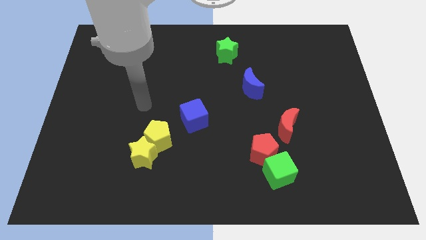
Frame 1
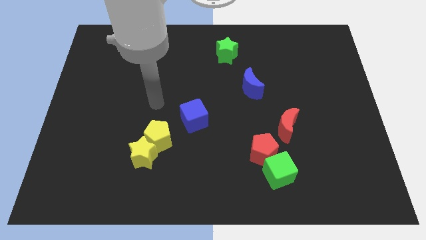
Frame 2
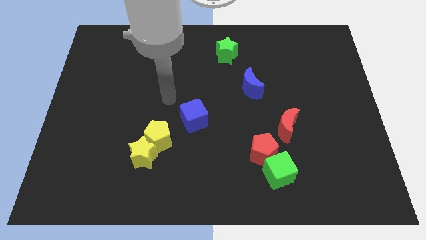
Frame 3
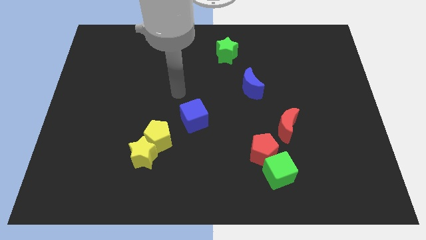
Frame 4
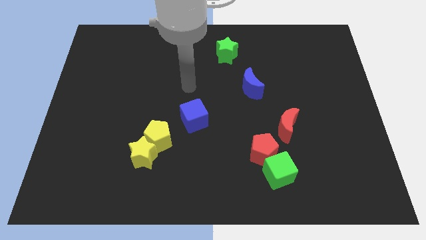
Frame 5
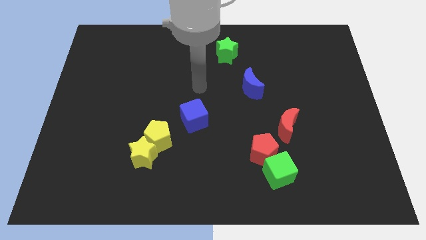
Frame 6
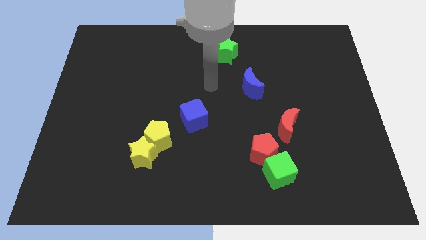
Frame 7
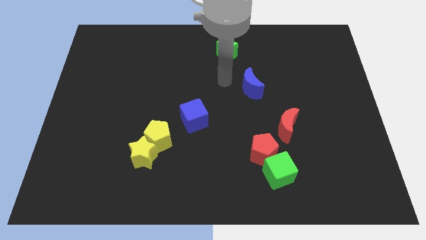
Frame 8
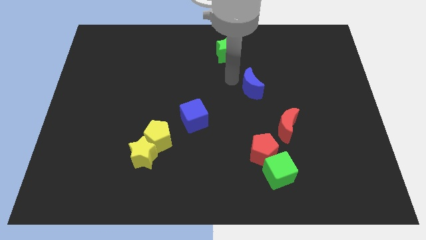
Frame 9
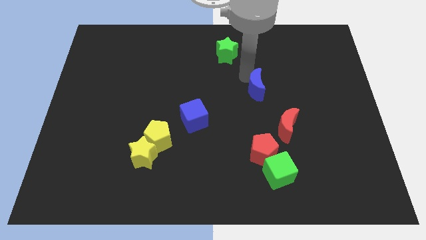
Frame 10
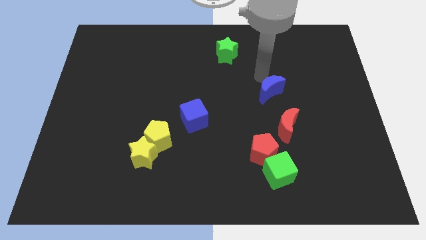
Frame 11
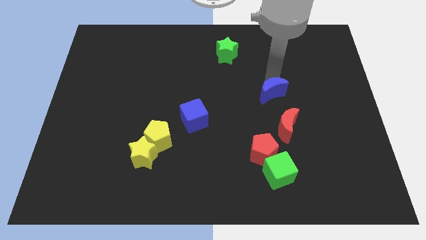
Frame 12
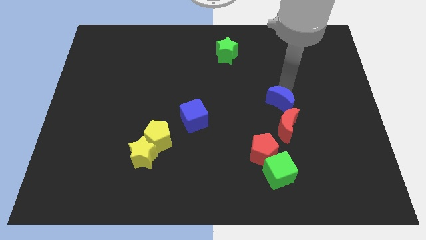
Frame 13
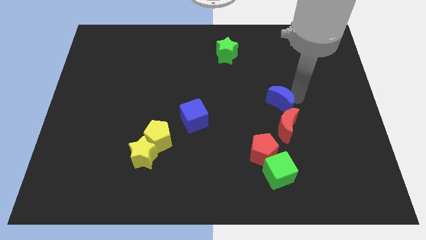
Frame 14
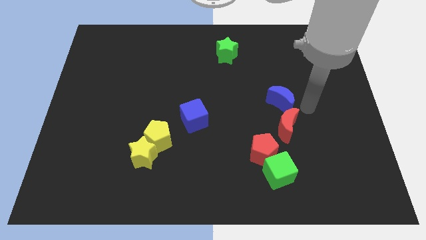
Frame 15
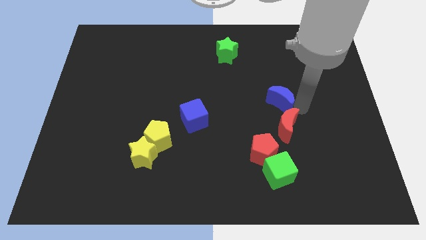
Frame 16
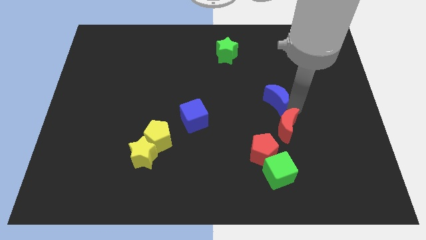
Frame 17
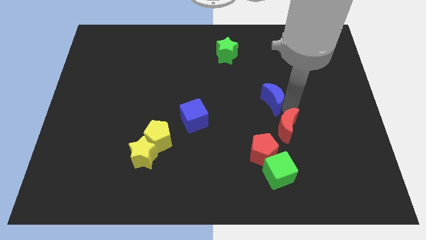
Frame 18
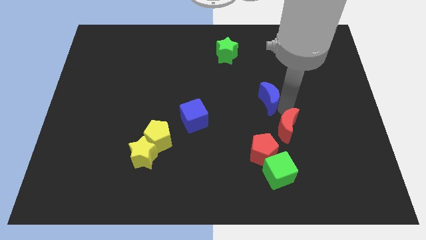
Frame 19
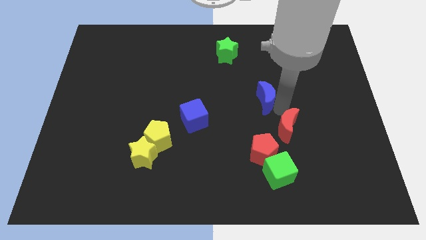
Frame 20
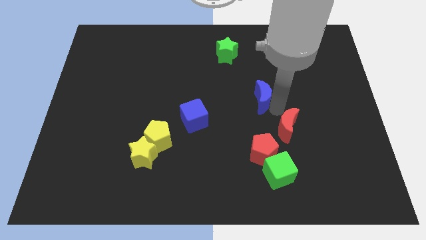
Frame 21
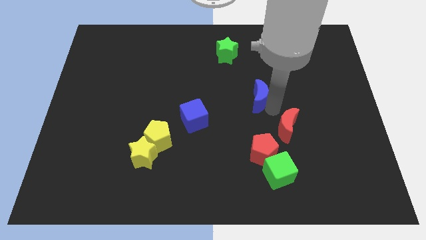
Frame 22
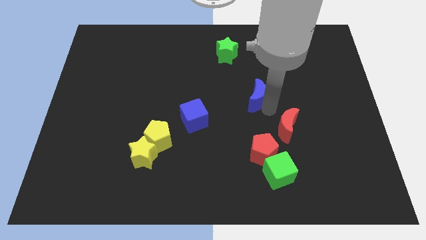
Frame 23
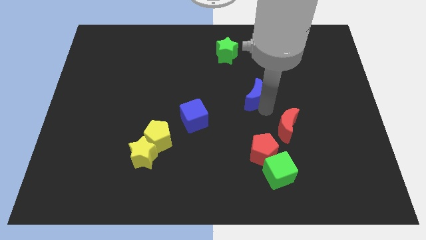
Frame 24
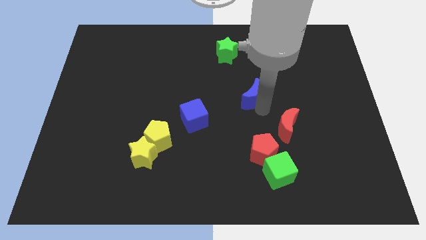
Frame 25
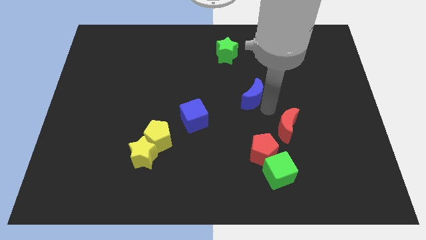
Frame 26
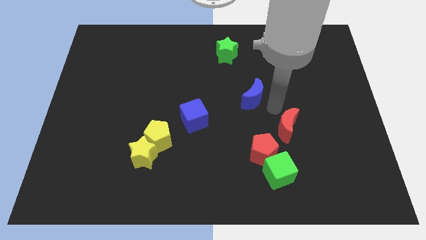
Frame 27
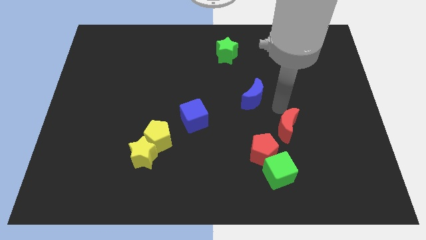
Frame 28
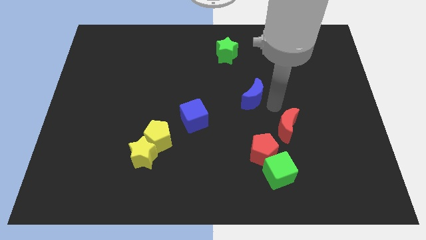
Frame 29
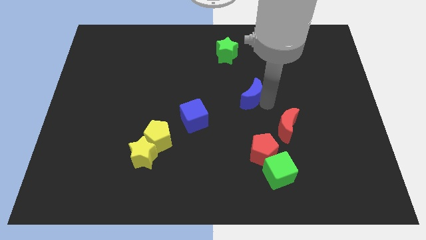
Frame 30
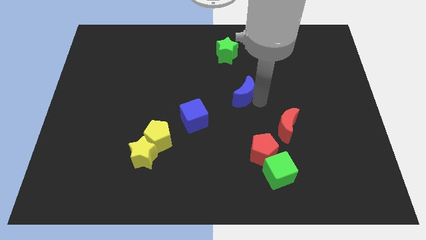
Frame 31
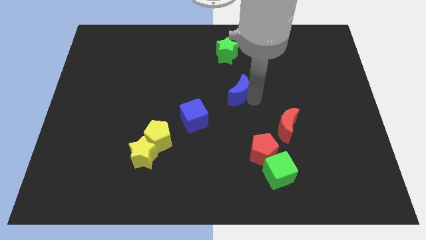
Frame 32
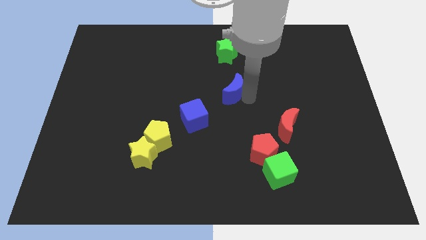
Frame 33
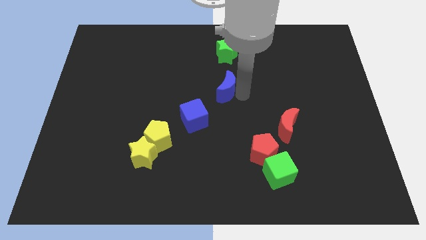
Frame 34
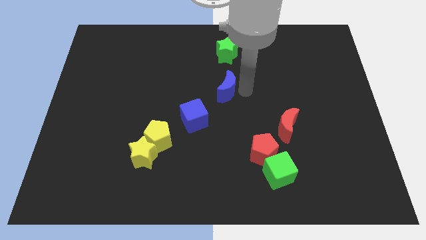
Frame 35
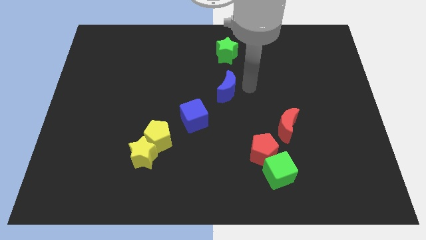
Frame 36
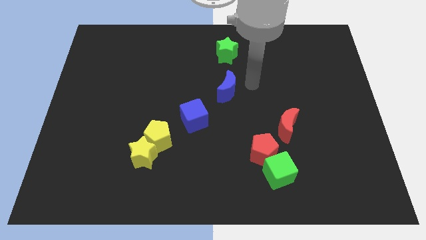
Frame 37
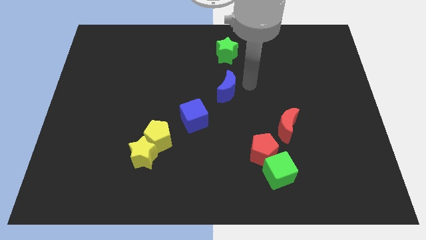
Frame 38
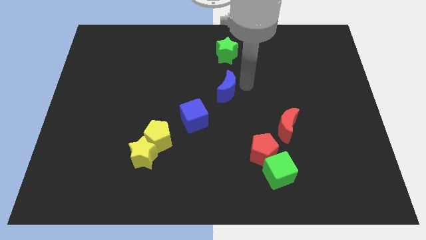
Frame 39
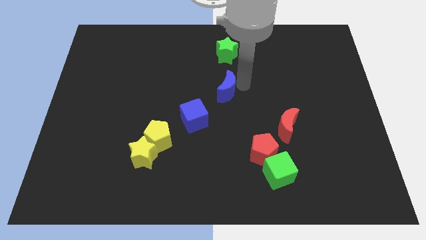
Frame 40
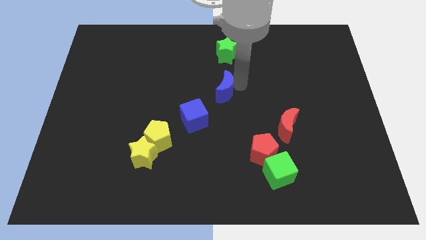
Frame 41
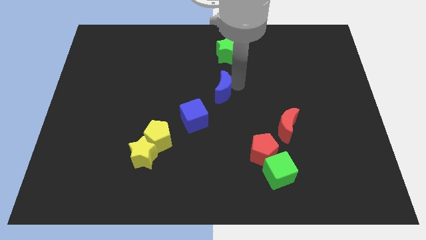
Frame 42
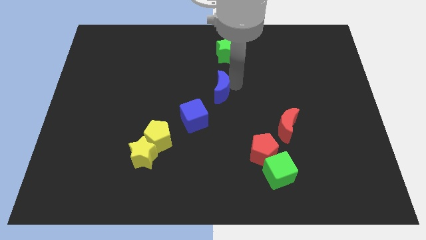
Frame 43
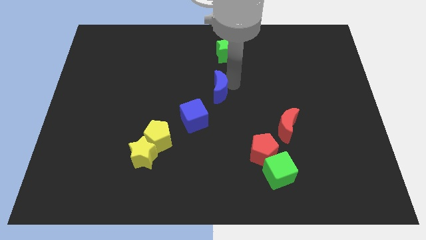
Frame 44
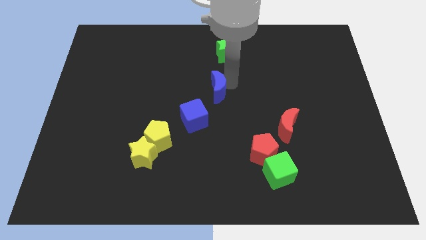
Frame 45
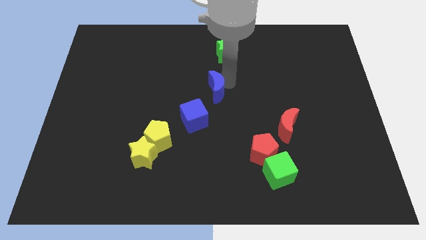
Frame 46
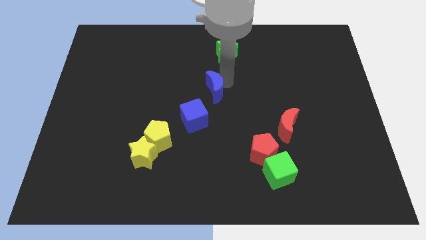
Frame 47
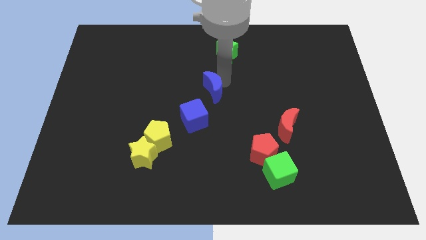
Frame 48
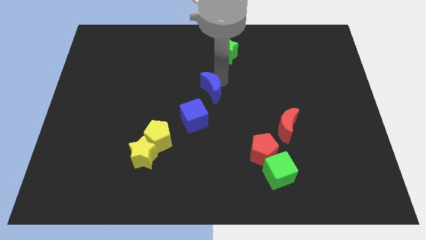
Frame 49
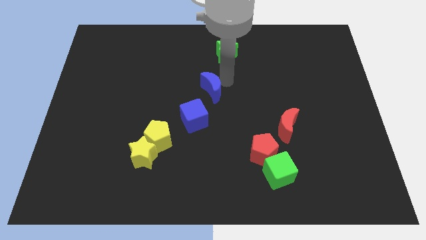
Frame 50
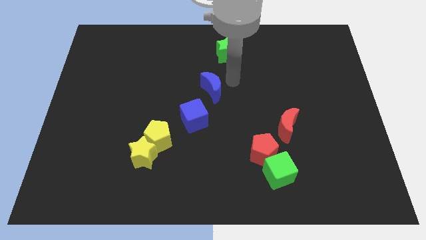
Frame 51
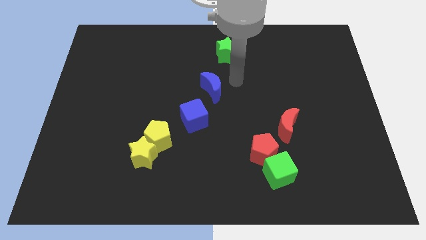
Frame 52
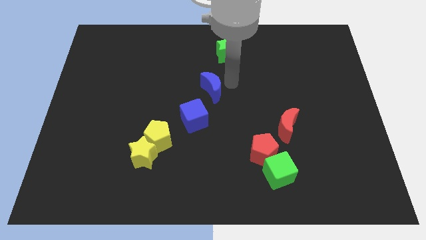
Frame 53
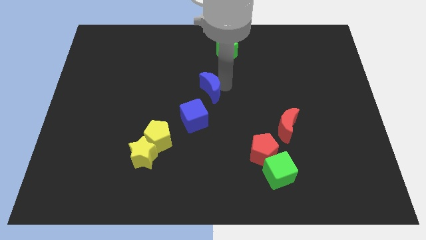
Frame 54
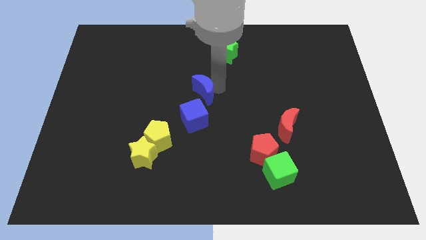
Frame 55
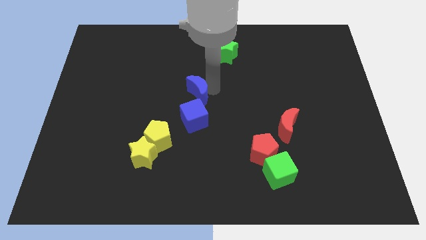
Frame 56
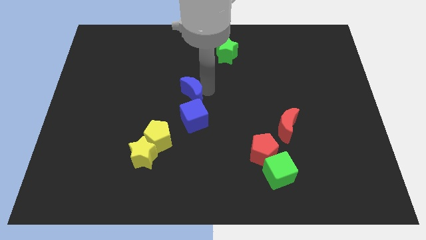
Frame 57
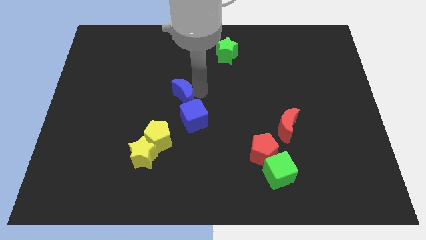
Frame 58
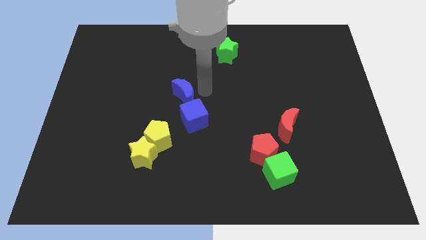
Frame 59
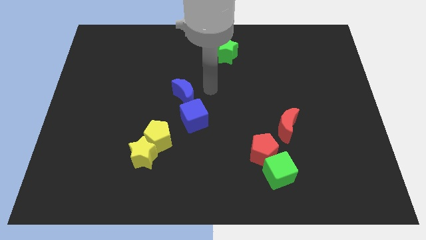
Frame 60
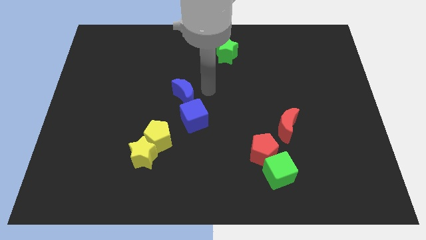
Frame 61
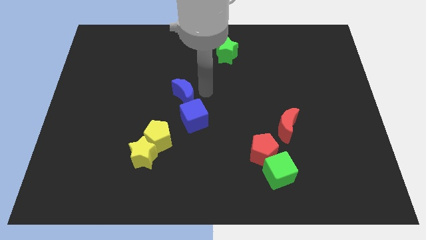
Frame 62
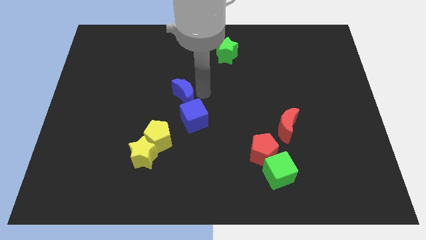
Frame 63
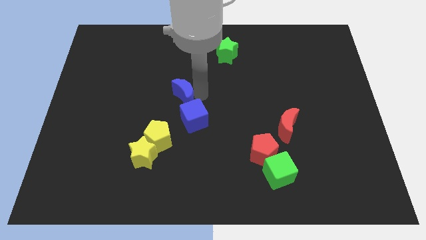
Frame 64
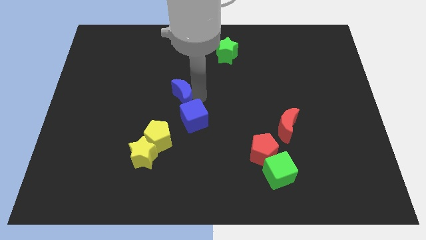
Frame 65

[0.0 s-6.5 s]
slide the blue moon to the top side of the yellow pentagon
